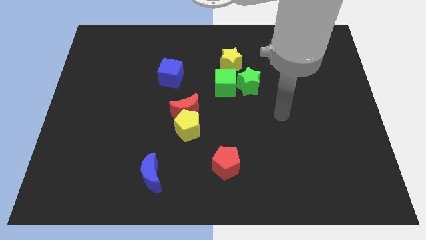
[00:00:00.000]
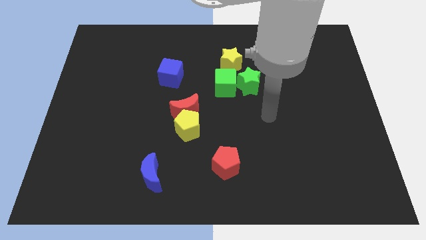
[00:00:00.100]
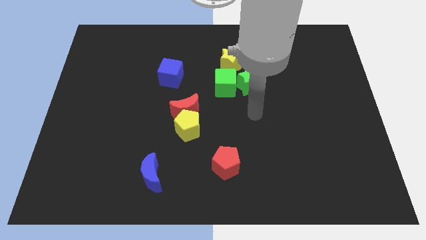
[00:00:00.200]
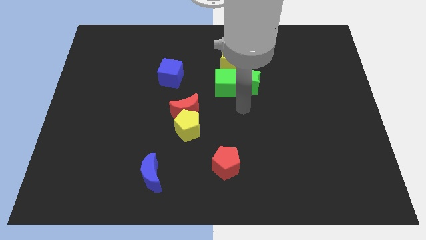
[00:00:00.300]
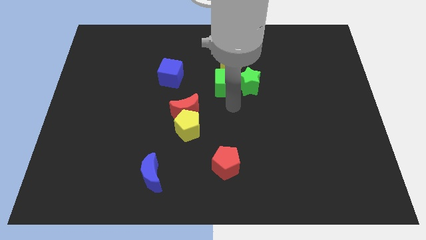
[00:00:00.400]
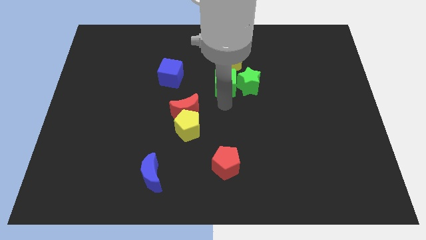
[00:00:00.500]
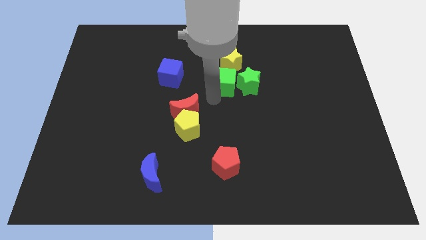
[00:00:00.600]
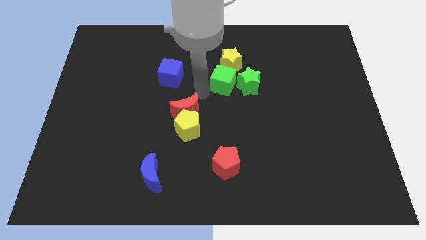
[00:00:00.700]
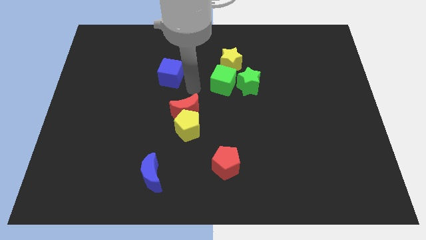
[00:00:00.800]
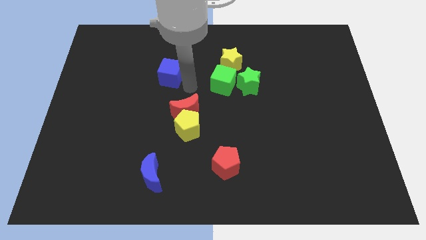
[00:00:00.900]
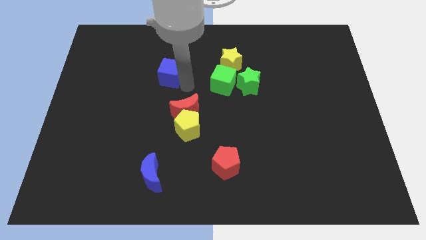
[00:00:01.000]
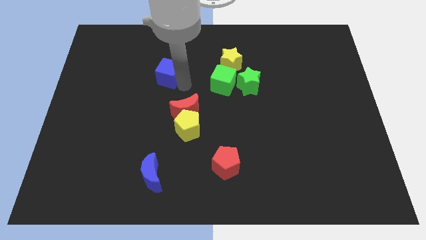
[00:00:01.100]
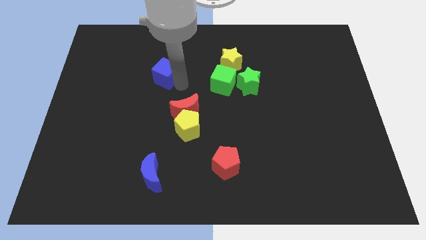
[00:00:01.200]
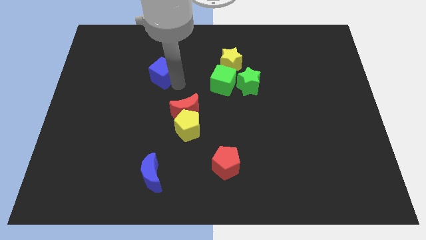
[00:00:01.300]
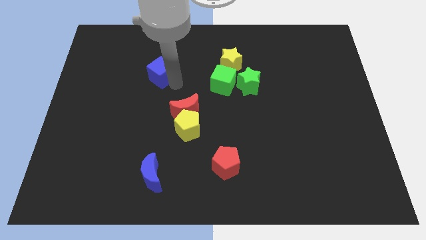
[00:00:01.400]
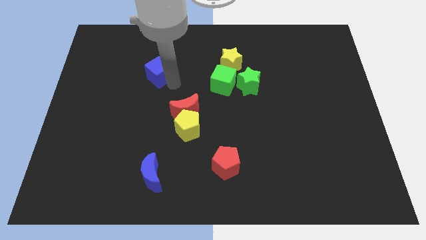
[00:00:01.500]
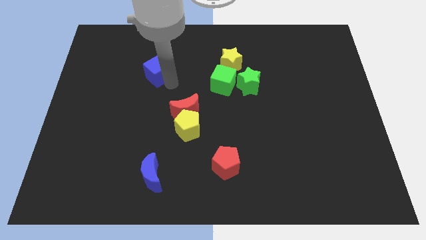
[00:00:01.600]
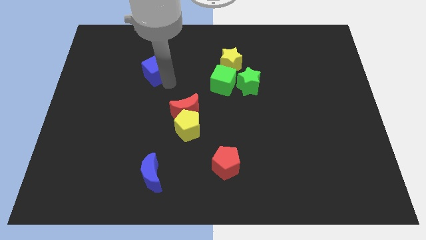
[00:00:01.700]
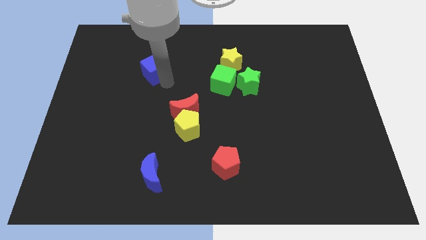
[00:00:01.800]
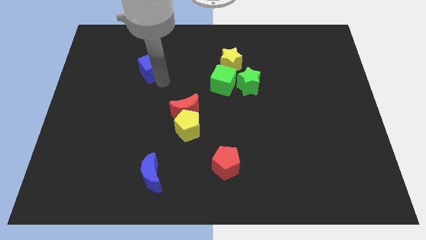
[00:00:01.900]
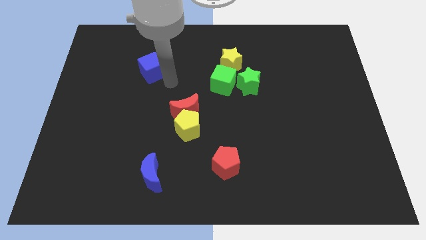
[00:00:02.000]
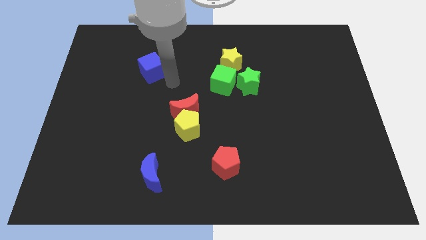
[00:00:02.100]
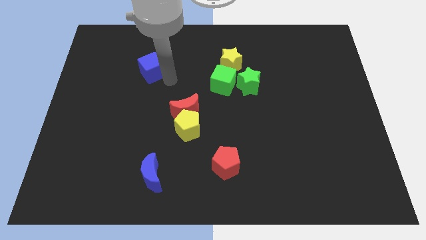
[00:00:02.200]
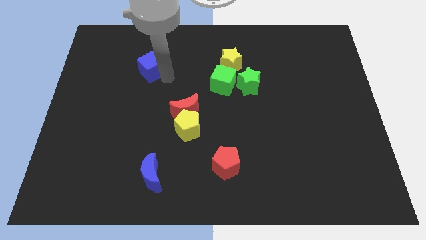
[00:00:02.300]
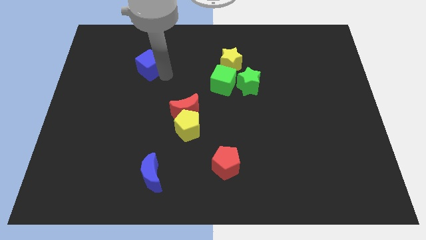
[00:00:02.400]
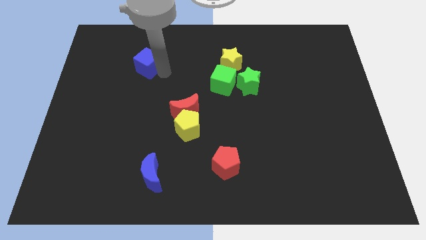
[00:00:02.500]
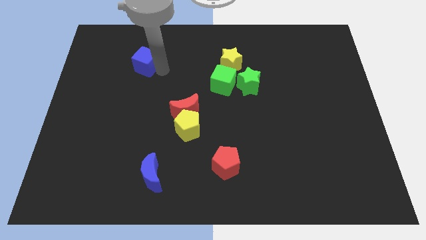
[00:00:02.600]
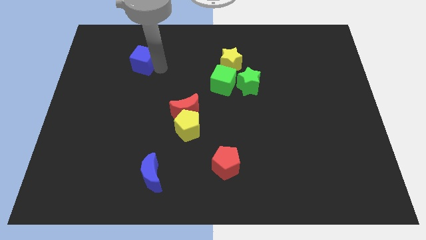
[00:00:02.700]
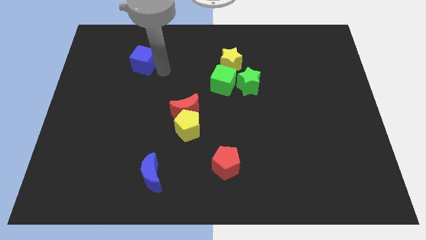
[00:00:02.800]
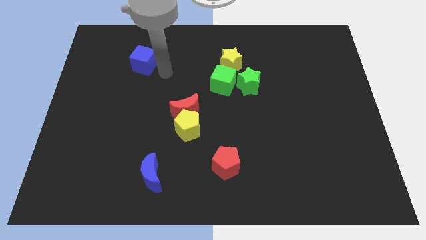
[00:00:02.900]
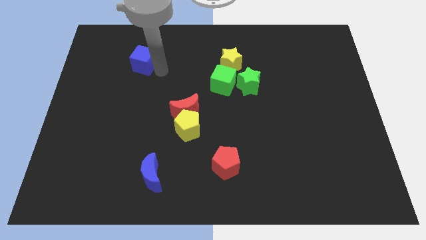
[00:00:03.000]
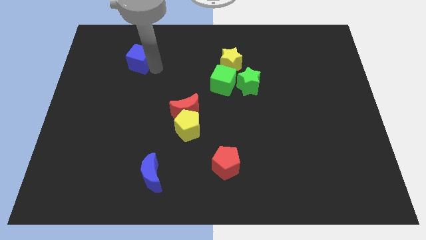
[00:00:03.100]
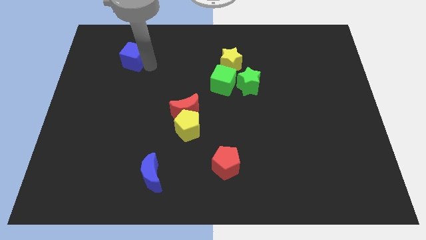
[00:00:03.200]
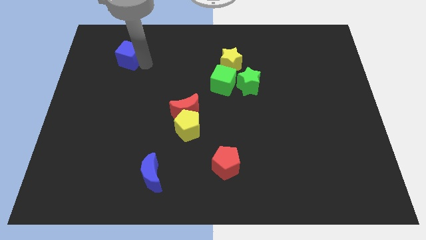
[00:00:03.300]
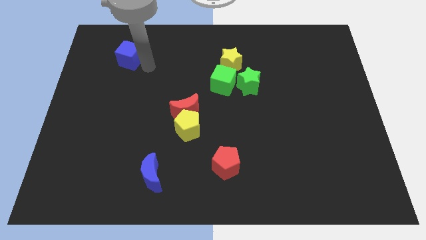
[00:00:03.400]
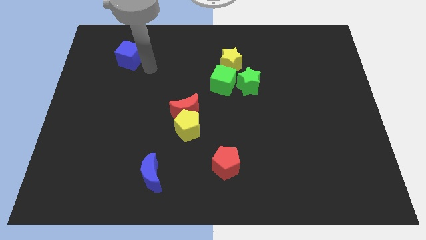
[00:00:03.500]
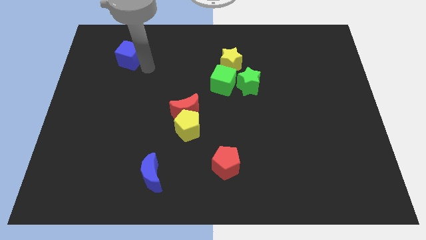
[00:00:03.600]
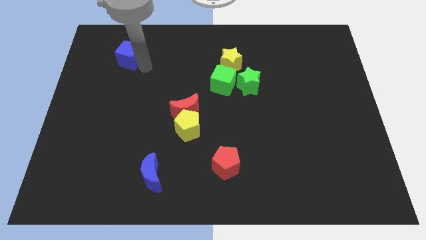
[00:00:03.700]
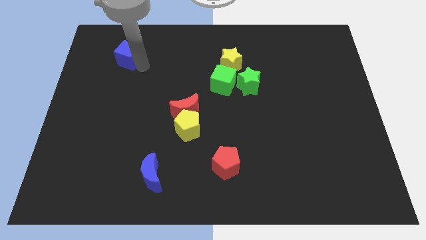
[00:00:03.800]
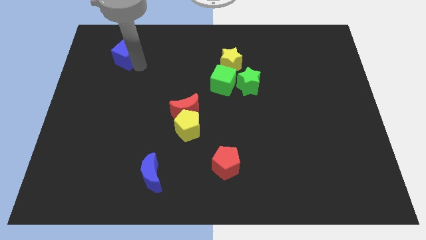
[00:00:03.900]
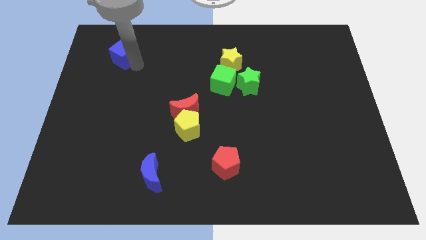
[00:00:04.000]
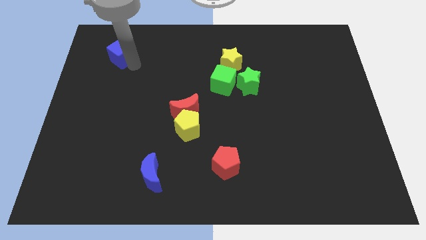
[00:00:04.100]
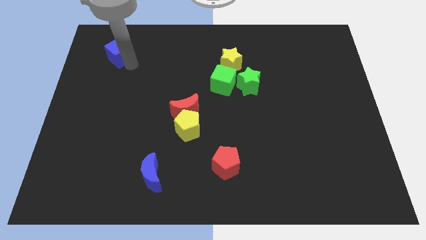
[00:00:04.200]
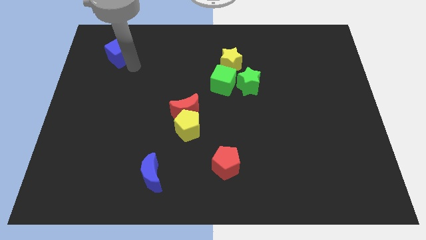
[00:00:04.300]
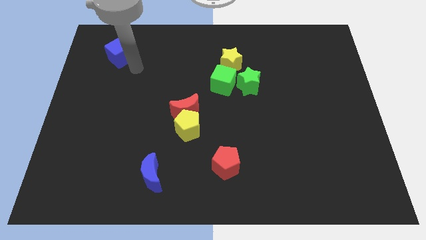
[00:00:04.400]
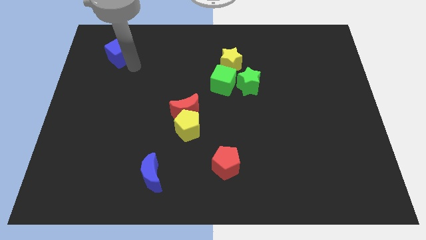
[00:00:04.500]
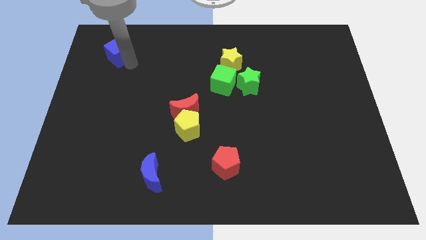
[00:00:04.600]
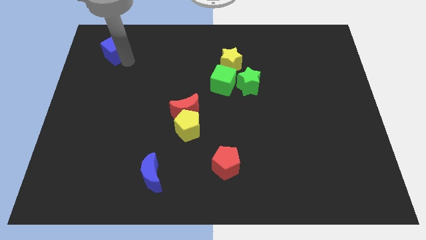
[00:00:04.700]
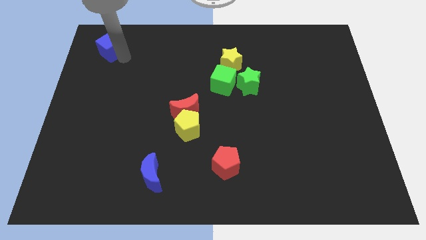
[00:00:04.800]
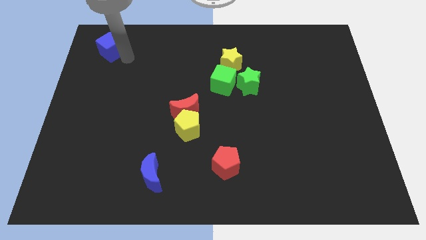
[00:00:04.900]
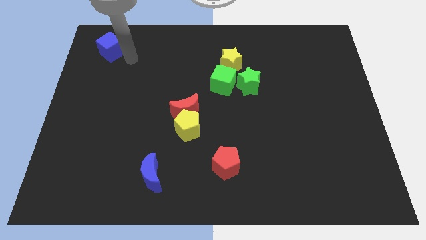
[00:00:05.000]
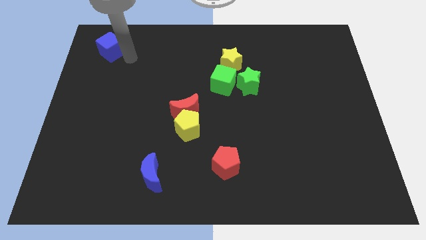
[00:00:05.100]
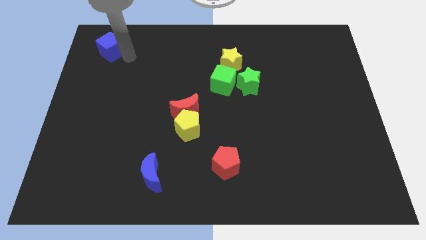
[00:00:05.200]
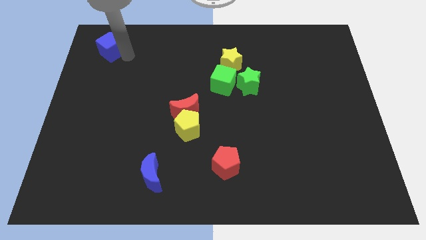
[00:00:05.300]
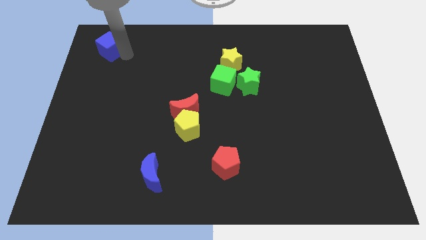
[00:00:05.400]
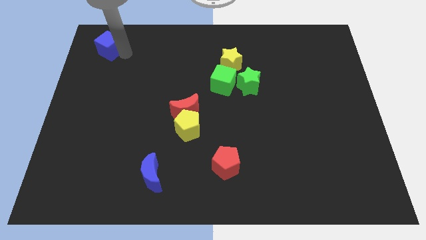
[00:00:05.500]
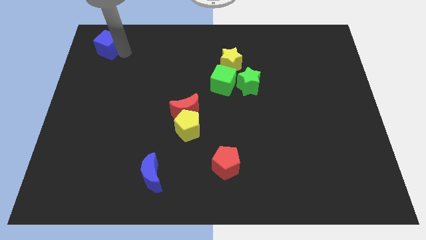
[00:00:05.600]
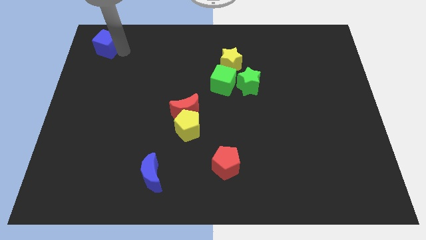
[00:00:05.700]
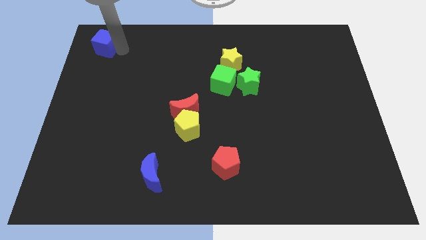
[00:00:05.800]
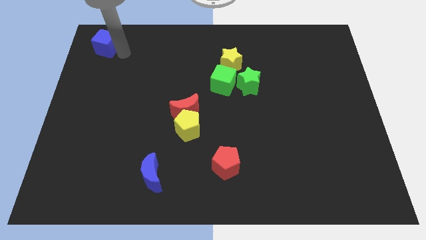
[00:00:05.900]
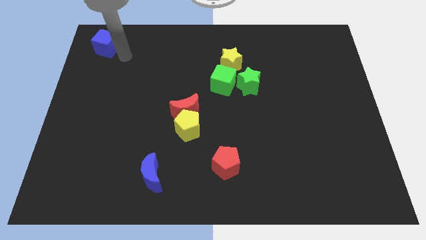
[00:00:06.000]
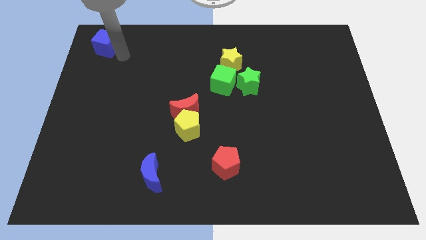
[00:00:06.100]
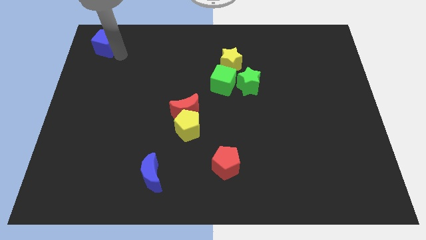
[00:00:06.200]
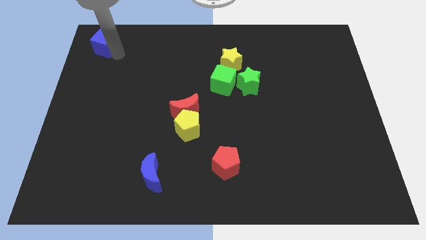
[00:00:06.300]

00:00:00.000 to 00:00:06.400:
slide the blue cube to the top left

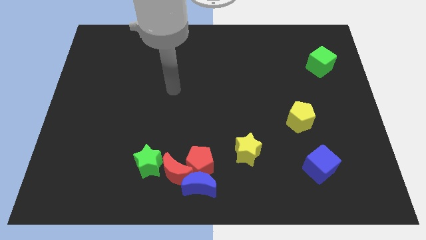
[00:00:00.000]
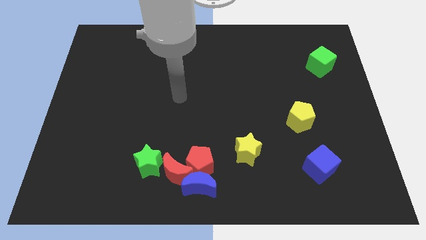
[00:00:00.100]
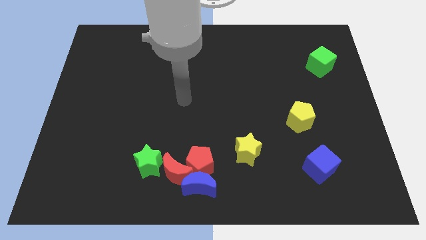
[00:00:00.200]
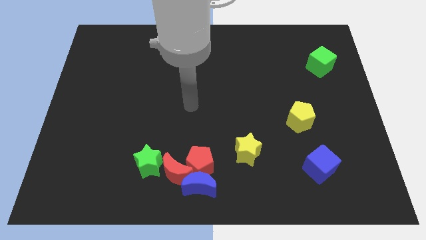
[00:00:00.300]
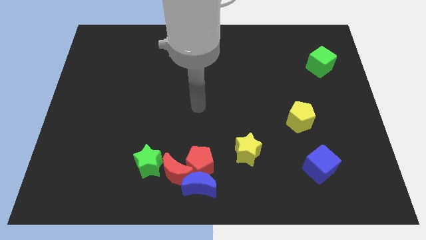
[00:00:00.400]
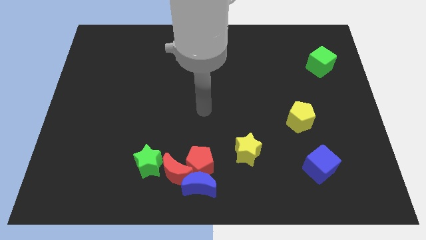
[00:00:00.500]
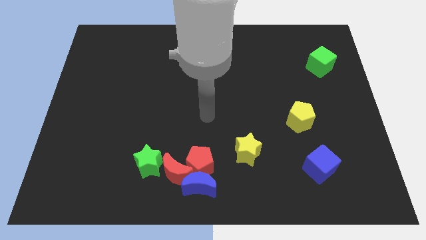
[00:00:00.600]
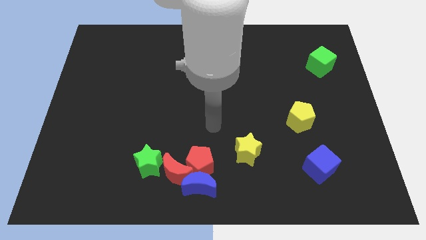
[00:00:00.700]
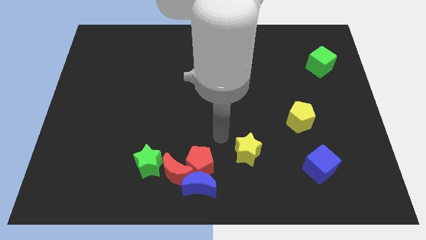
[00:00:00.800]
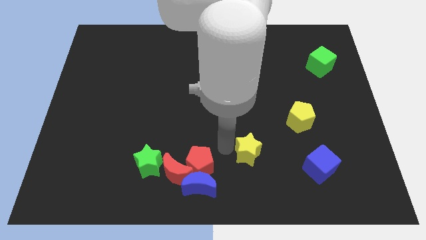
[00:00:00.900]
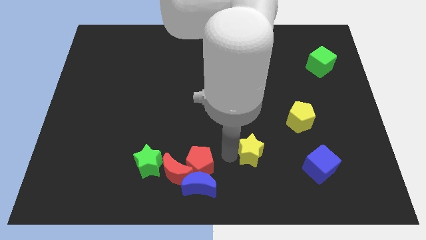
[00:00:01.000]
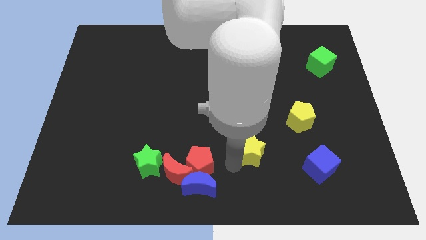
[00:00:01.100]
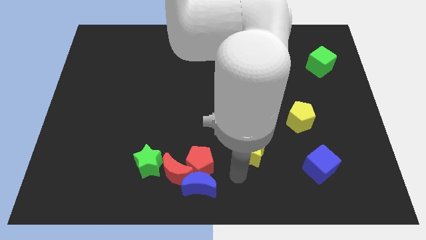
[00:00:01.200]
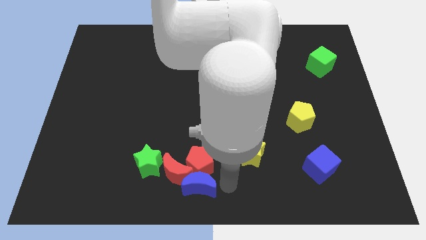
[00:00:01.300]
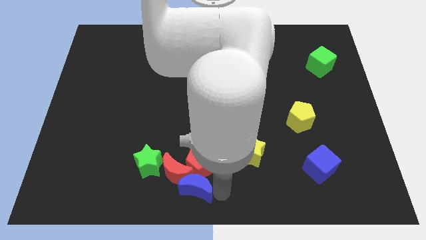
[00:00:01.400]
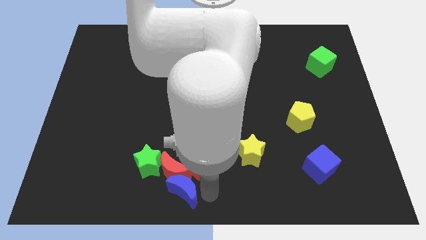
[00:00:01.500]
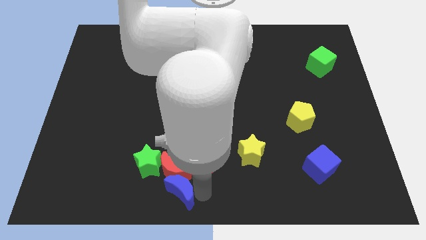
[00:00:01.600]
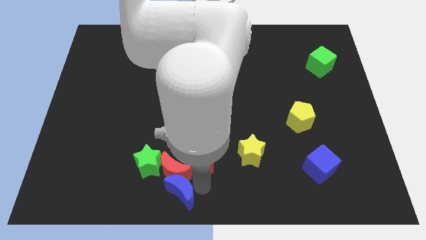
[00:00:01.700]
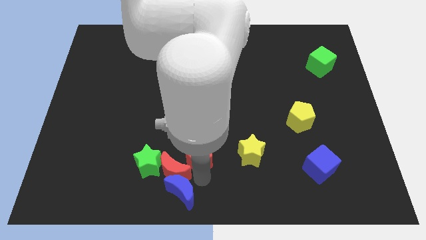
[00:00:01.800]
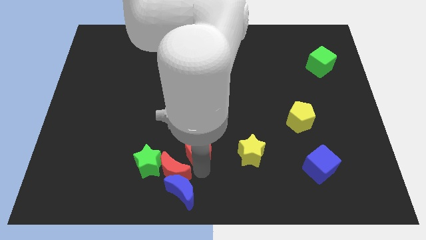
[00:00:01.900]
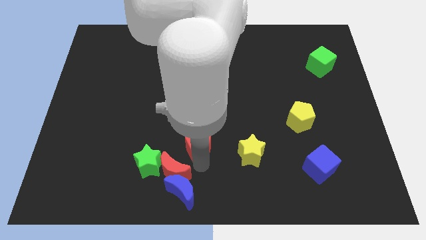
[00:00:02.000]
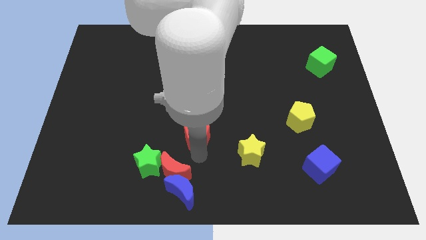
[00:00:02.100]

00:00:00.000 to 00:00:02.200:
move the red pentagon to the center of the board
